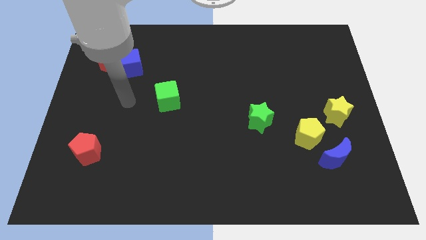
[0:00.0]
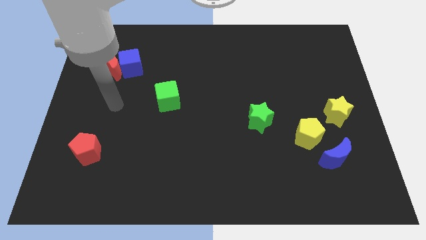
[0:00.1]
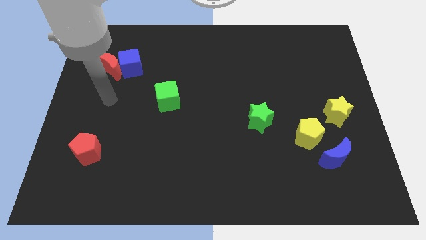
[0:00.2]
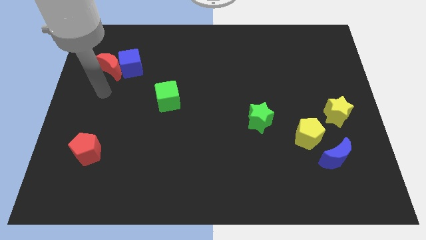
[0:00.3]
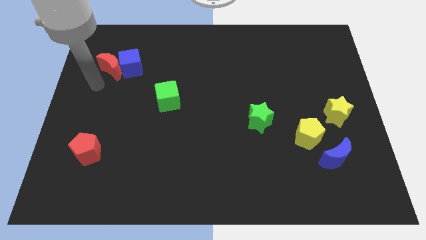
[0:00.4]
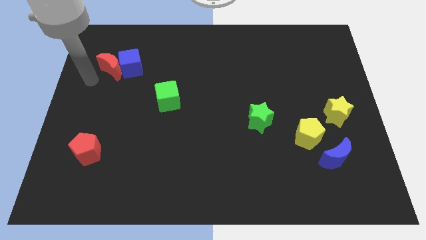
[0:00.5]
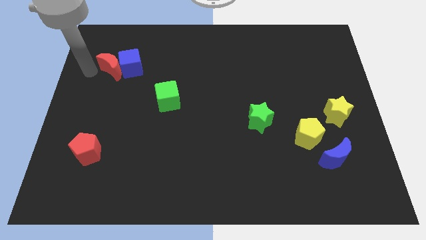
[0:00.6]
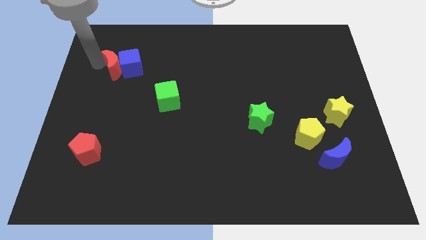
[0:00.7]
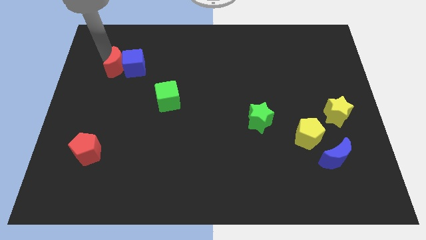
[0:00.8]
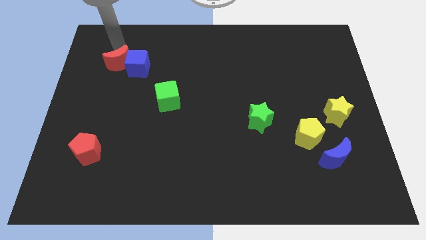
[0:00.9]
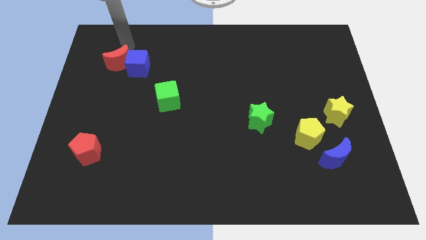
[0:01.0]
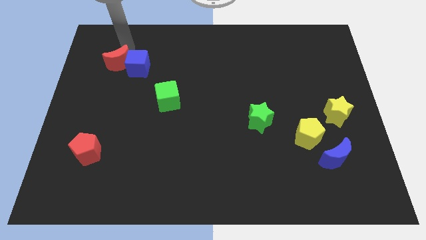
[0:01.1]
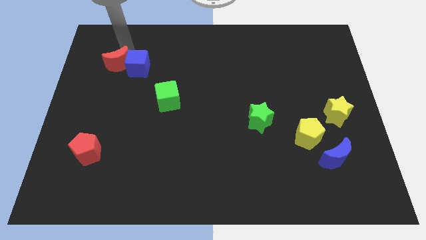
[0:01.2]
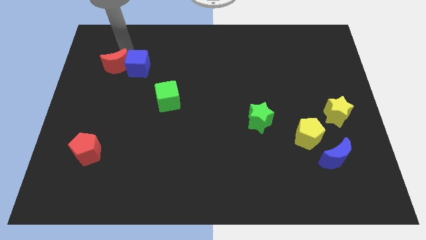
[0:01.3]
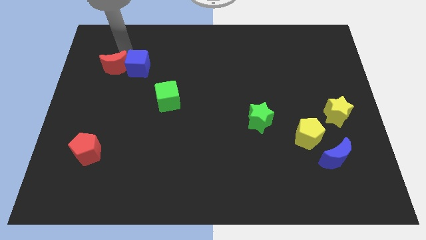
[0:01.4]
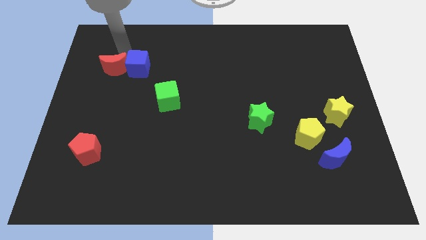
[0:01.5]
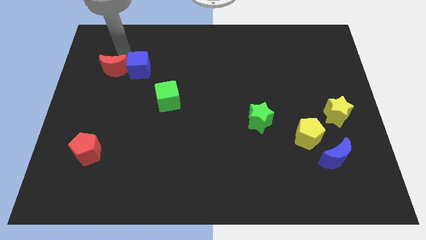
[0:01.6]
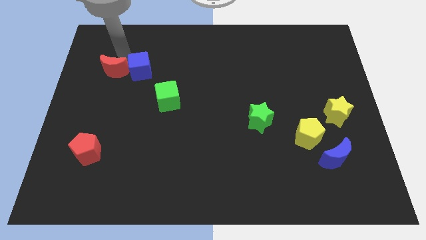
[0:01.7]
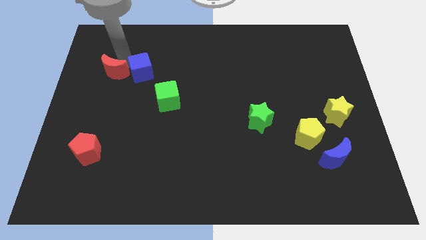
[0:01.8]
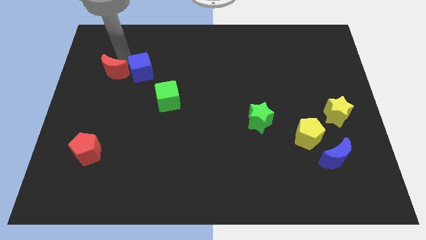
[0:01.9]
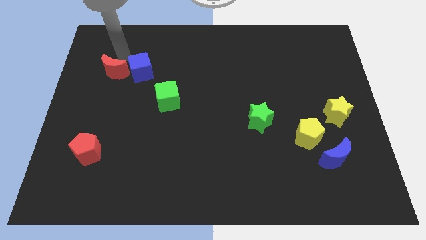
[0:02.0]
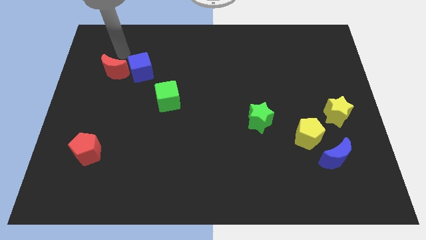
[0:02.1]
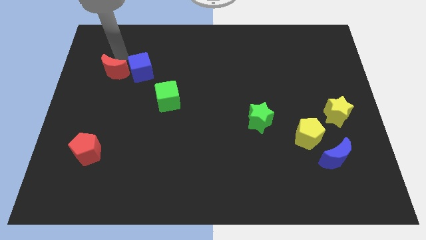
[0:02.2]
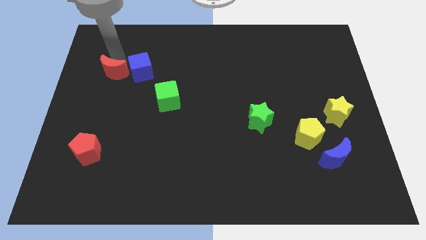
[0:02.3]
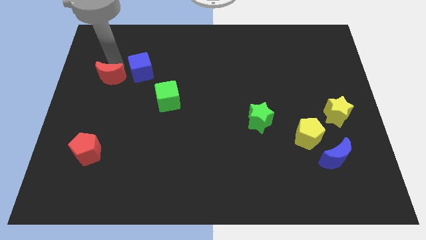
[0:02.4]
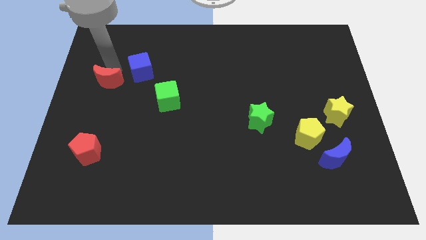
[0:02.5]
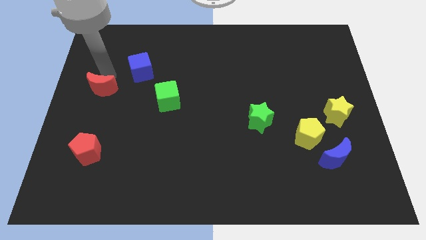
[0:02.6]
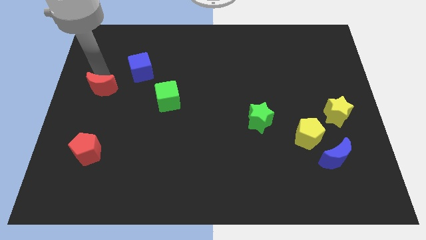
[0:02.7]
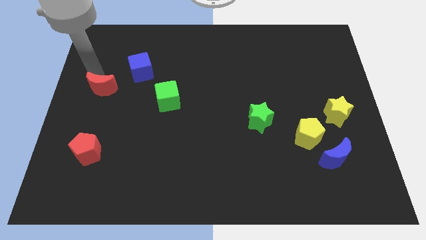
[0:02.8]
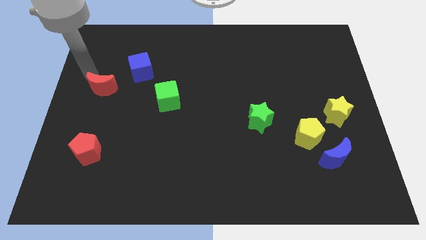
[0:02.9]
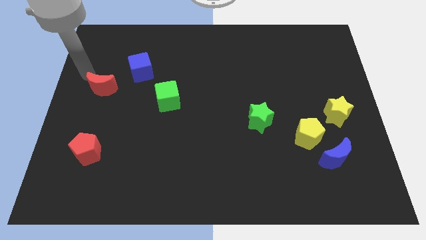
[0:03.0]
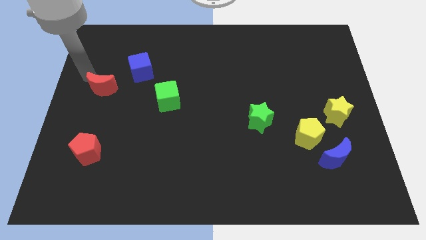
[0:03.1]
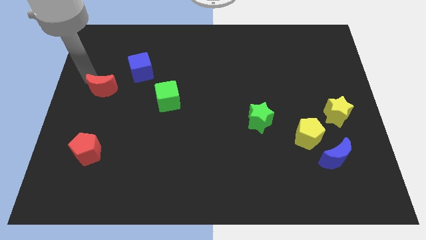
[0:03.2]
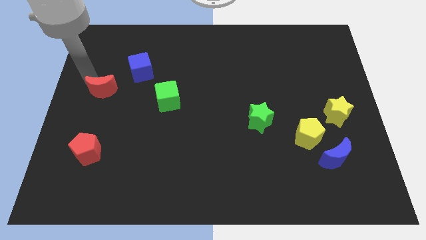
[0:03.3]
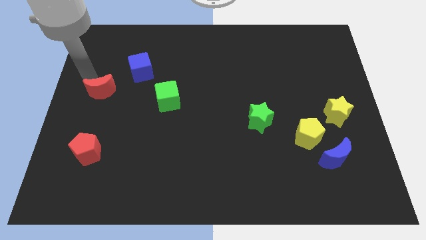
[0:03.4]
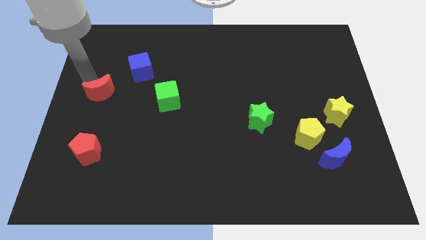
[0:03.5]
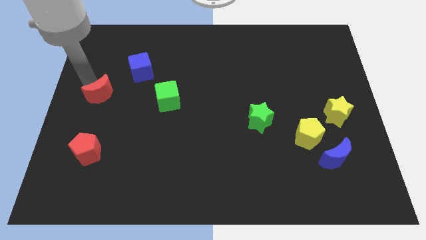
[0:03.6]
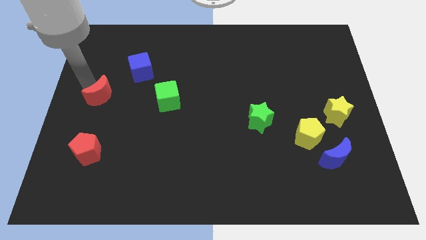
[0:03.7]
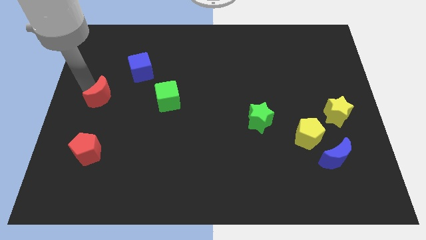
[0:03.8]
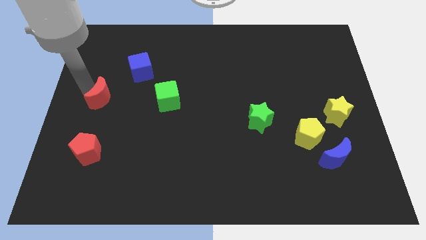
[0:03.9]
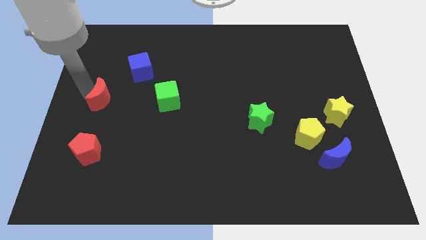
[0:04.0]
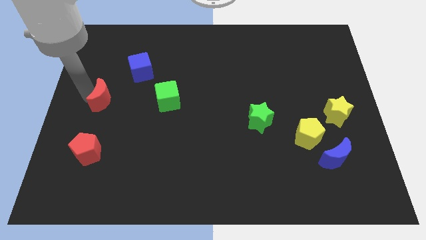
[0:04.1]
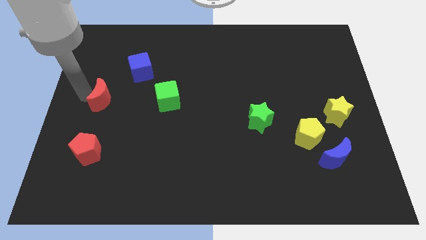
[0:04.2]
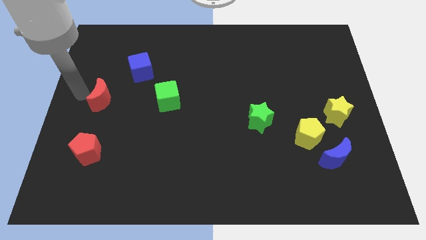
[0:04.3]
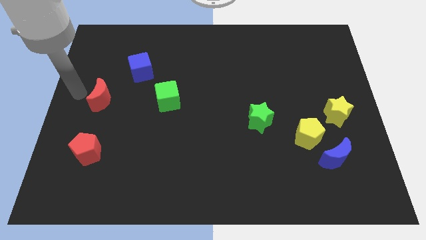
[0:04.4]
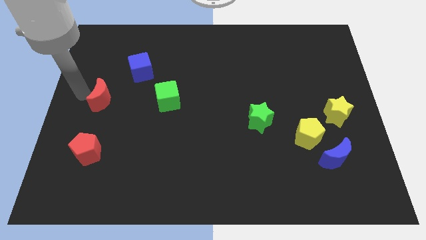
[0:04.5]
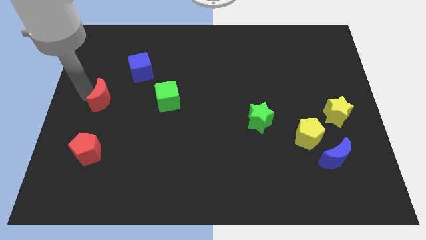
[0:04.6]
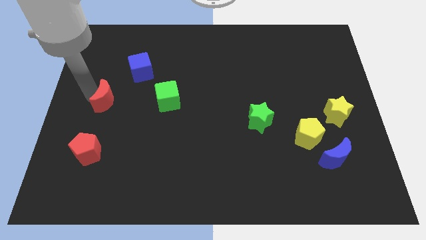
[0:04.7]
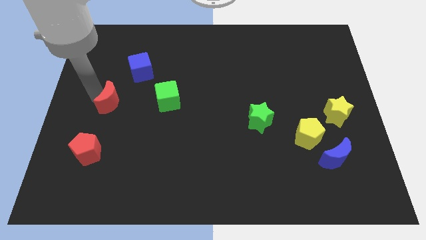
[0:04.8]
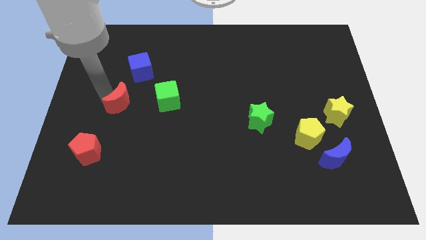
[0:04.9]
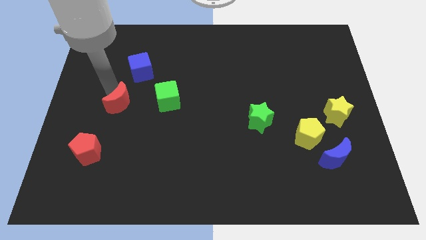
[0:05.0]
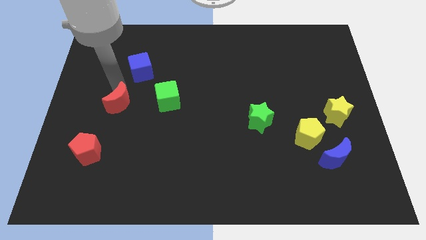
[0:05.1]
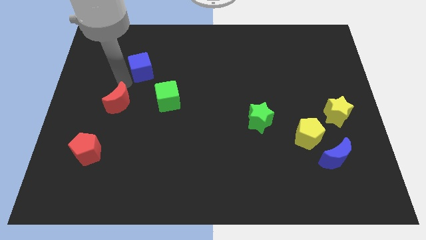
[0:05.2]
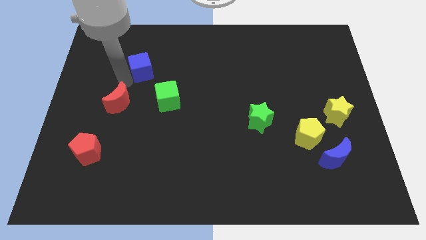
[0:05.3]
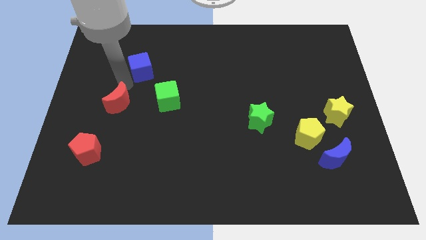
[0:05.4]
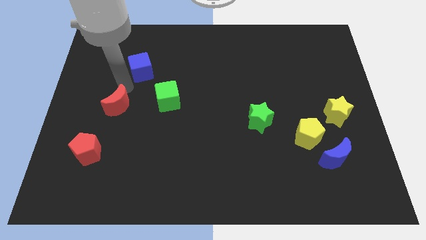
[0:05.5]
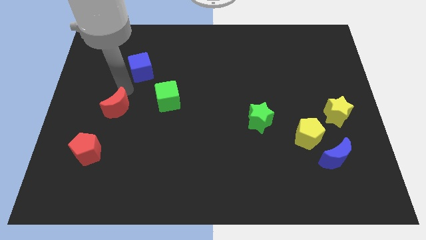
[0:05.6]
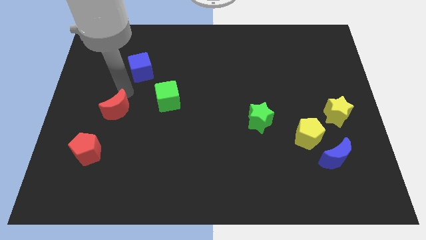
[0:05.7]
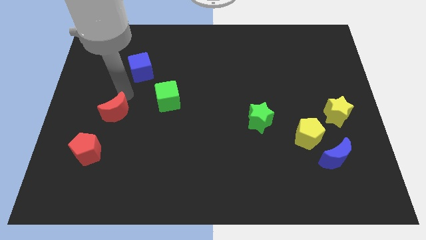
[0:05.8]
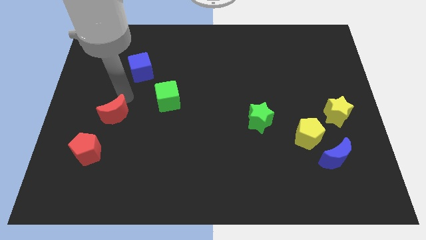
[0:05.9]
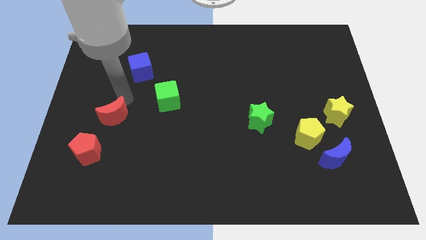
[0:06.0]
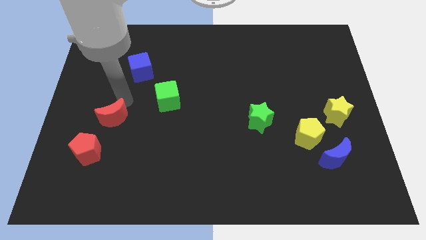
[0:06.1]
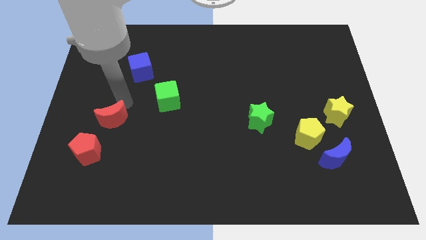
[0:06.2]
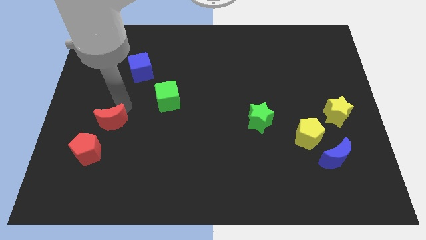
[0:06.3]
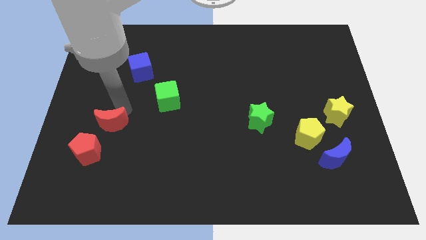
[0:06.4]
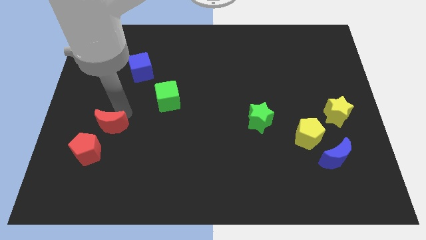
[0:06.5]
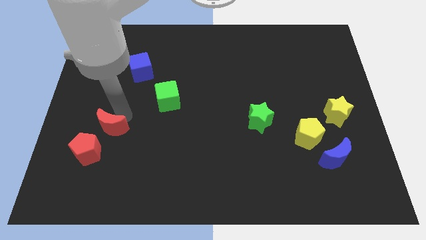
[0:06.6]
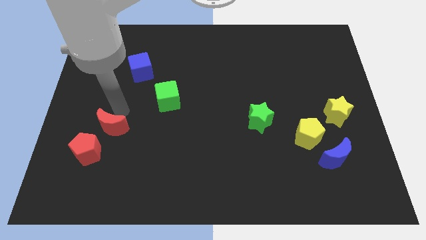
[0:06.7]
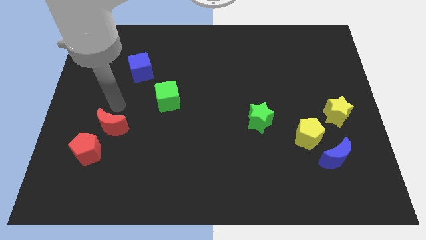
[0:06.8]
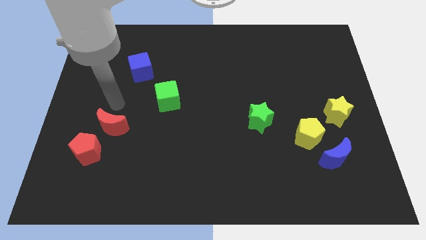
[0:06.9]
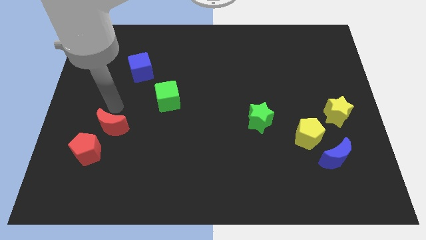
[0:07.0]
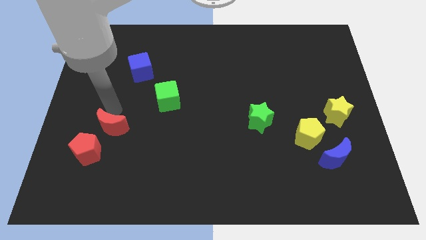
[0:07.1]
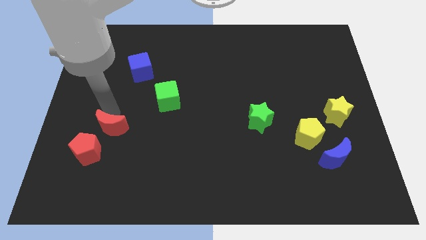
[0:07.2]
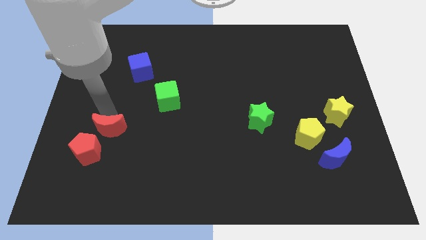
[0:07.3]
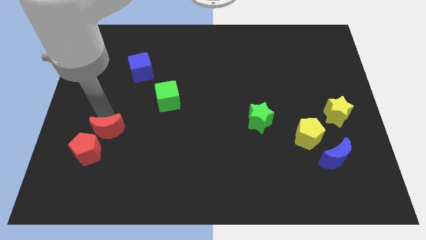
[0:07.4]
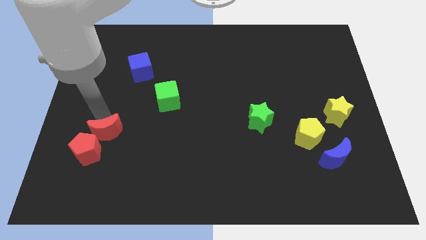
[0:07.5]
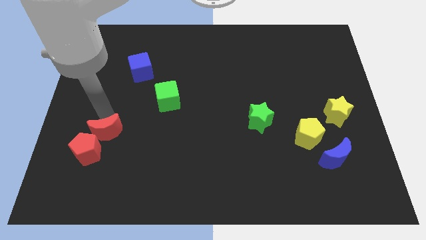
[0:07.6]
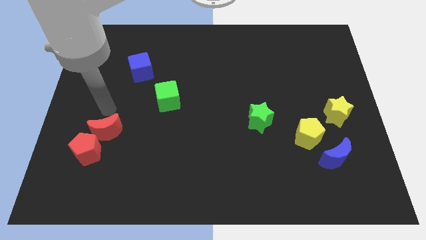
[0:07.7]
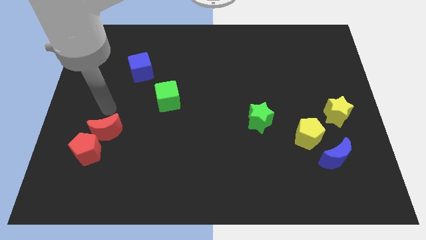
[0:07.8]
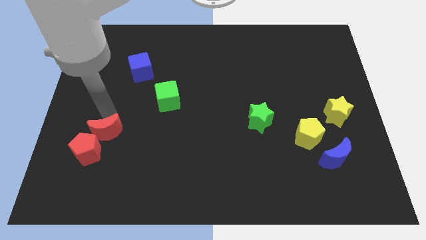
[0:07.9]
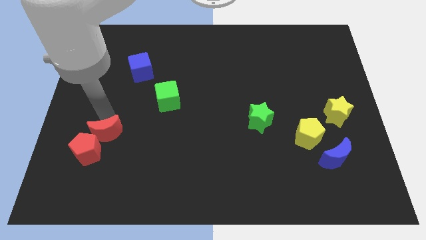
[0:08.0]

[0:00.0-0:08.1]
push the red moon down

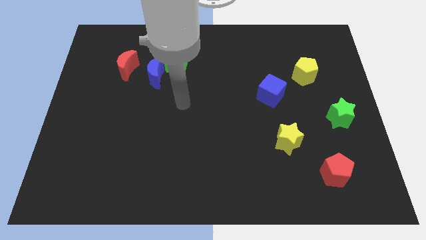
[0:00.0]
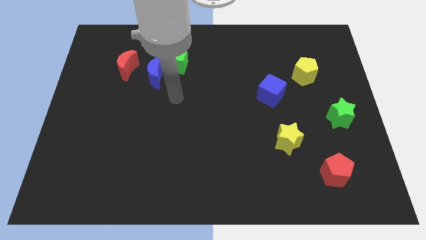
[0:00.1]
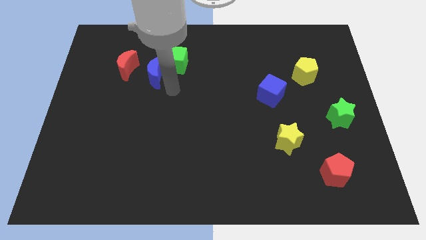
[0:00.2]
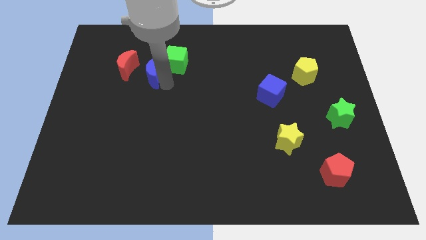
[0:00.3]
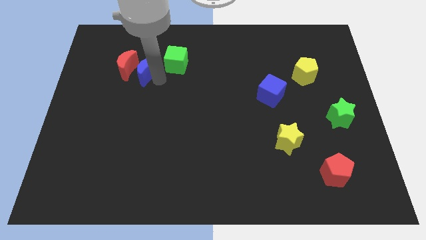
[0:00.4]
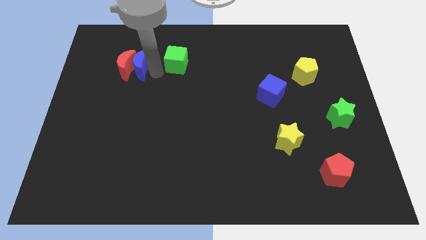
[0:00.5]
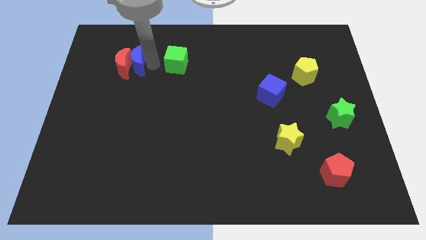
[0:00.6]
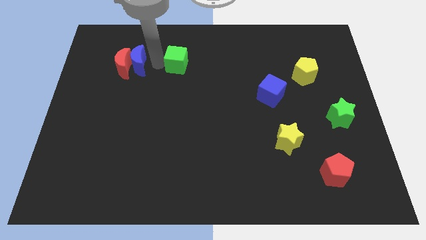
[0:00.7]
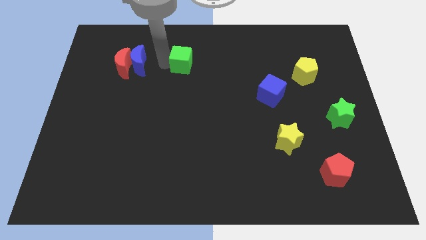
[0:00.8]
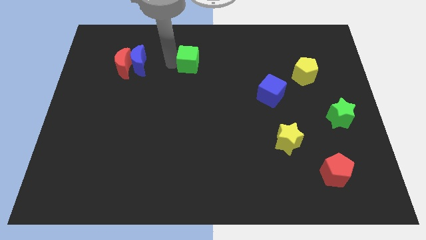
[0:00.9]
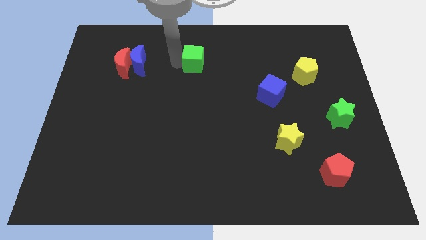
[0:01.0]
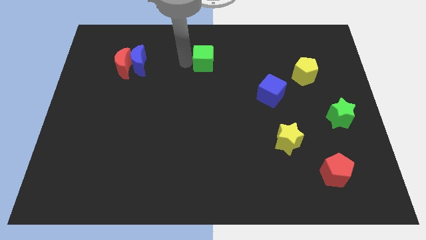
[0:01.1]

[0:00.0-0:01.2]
slide the green cube right a little
